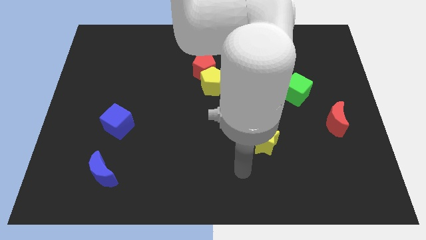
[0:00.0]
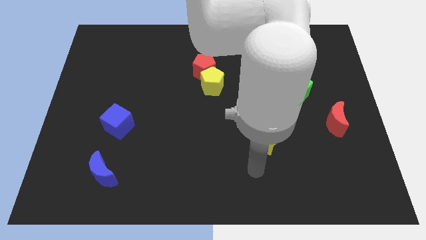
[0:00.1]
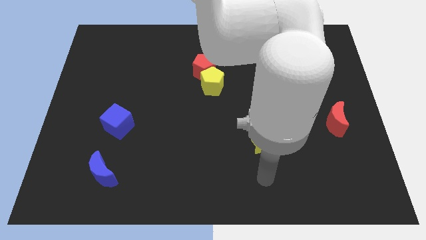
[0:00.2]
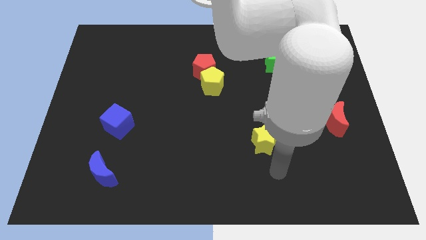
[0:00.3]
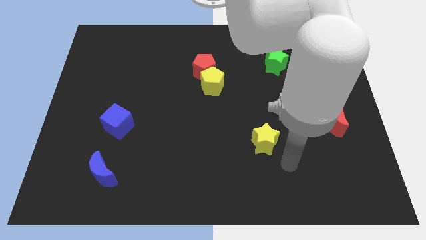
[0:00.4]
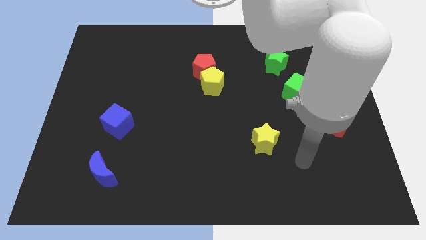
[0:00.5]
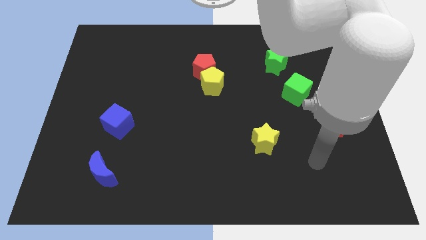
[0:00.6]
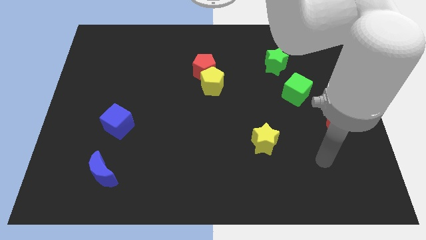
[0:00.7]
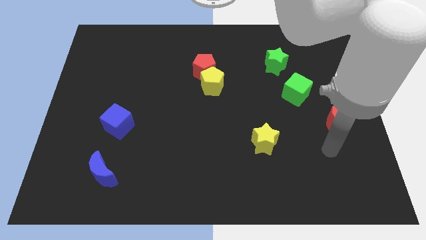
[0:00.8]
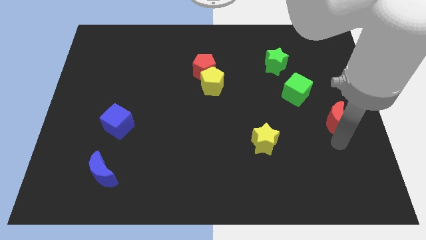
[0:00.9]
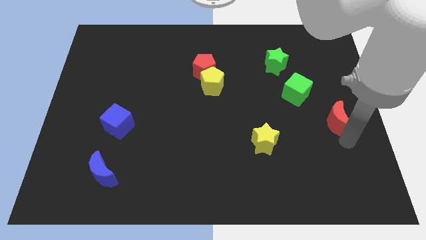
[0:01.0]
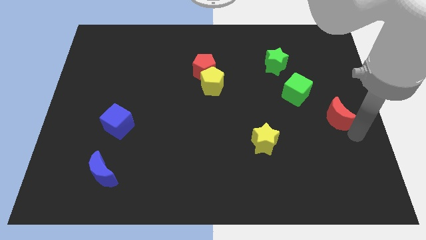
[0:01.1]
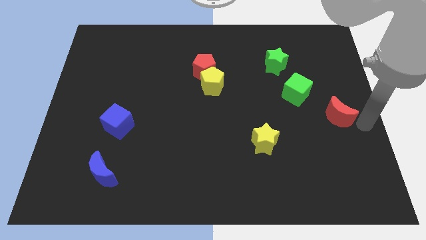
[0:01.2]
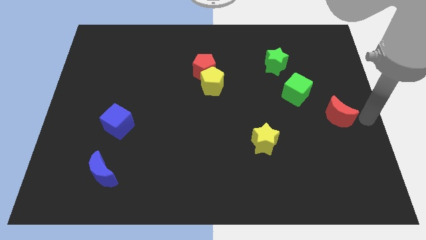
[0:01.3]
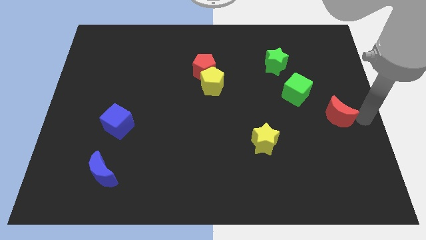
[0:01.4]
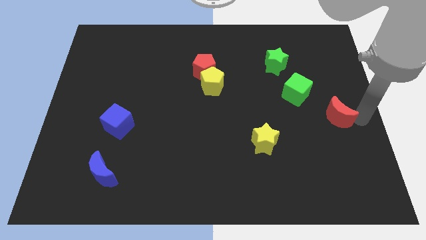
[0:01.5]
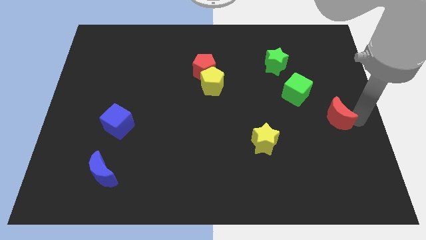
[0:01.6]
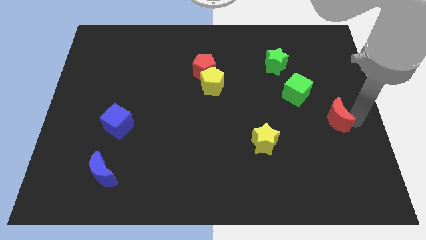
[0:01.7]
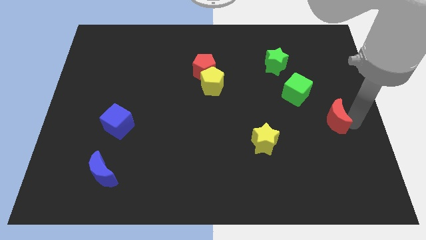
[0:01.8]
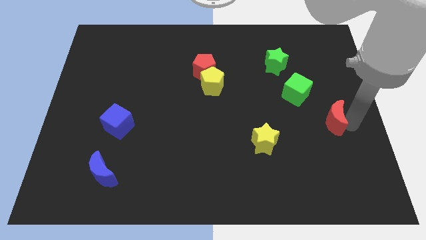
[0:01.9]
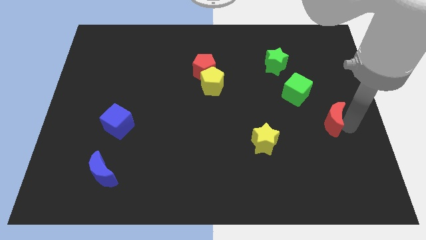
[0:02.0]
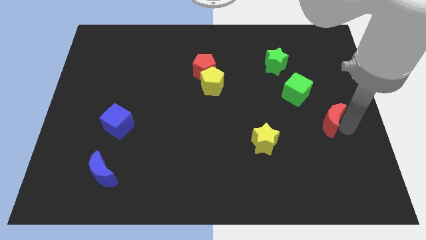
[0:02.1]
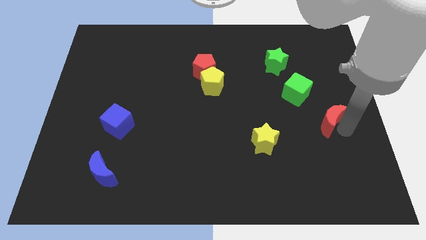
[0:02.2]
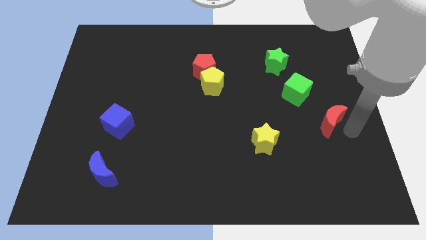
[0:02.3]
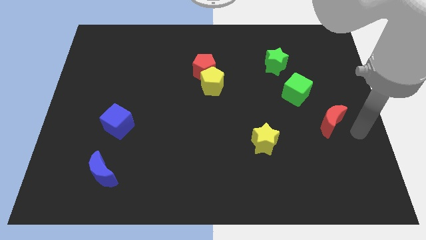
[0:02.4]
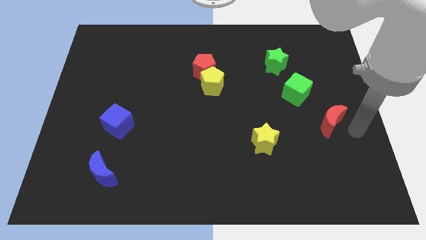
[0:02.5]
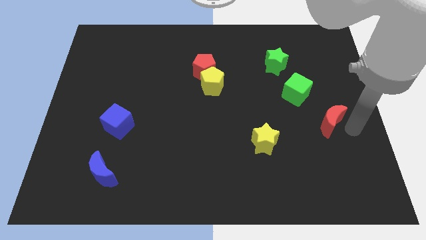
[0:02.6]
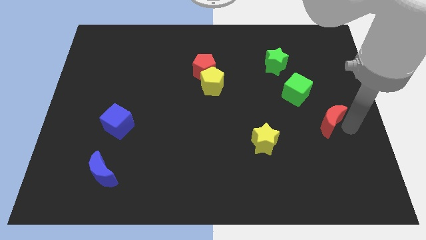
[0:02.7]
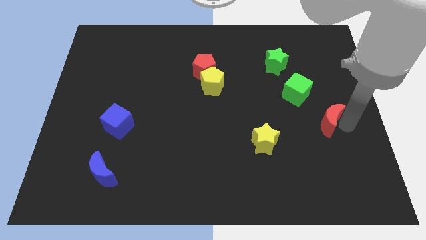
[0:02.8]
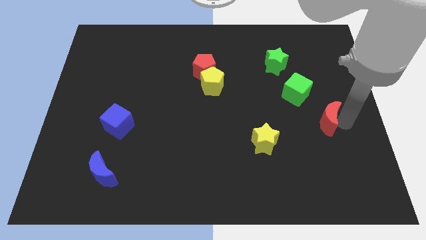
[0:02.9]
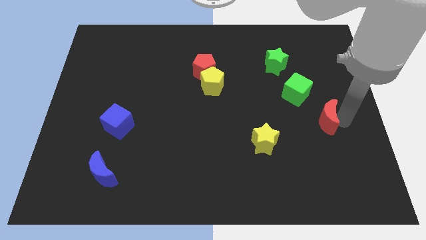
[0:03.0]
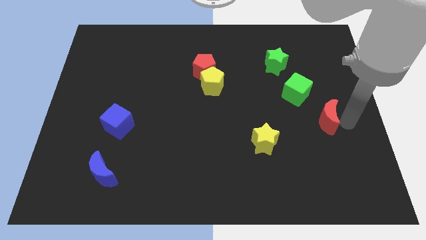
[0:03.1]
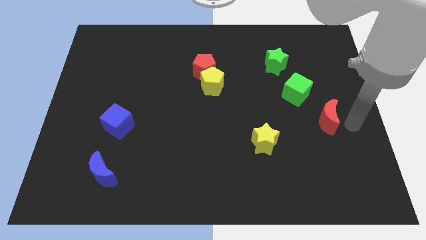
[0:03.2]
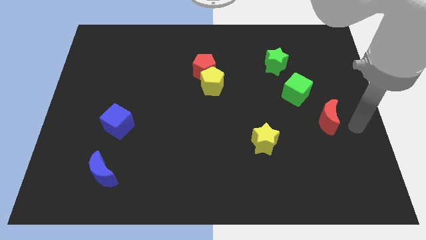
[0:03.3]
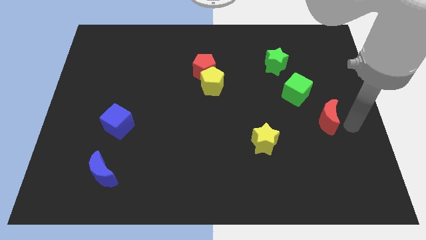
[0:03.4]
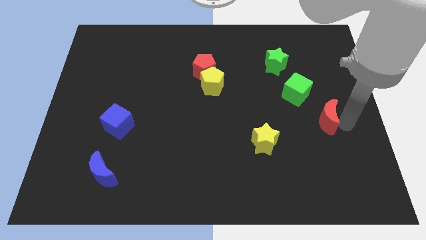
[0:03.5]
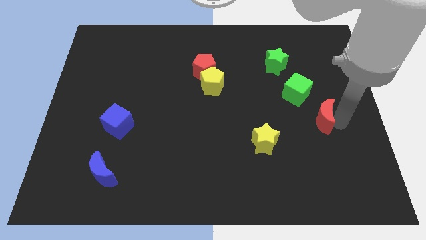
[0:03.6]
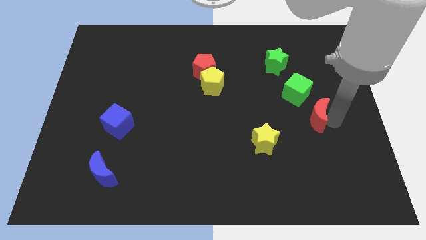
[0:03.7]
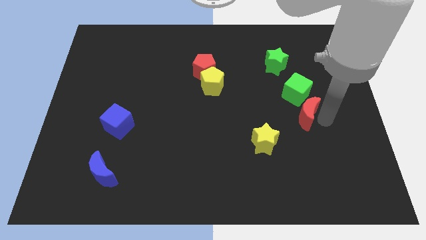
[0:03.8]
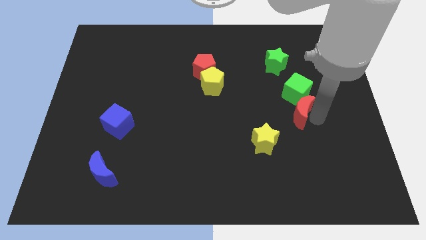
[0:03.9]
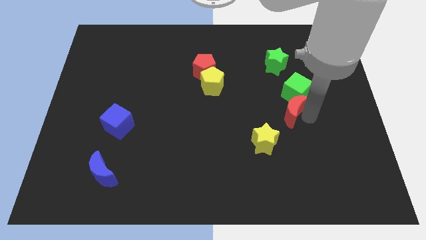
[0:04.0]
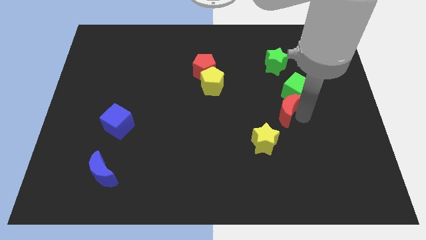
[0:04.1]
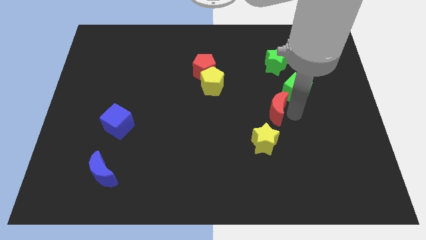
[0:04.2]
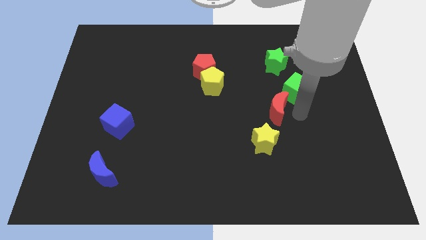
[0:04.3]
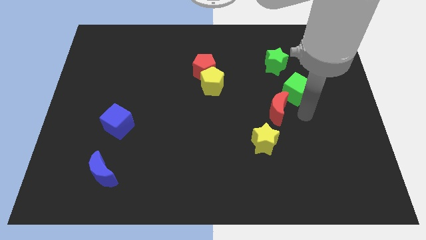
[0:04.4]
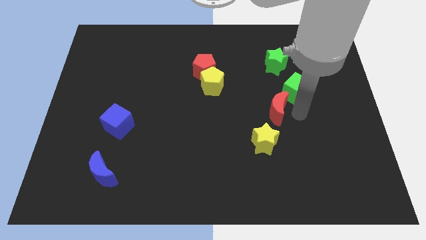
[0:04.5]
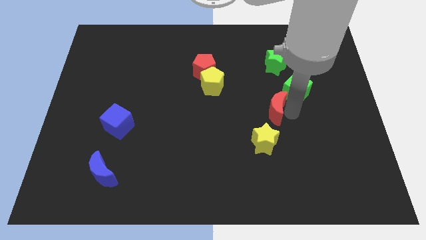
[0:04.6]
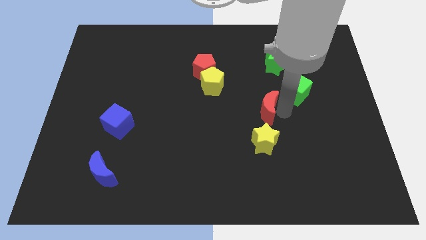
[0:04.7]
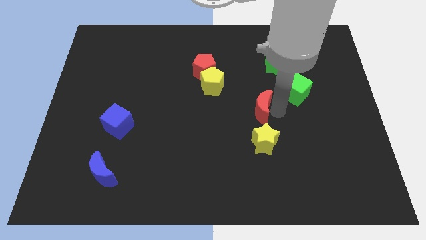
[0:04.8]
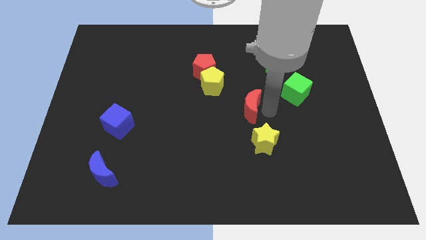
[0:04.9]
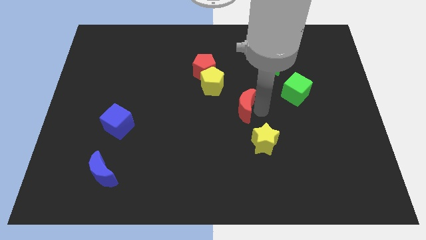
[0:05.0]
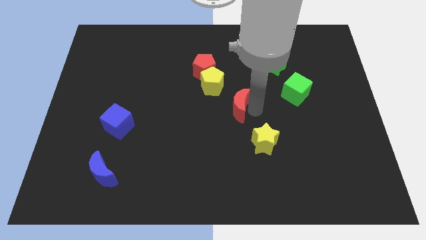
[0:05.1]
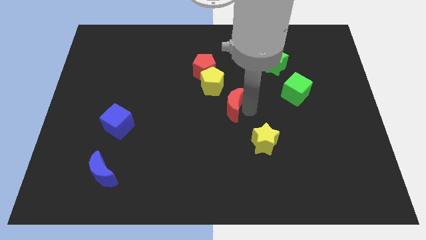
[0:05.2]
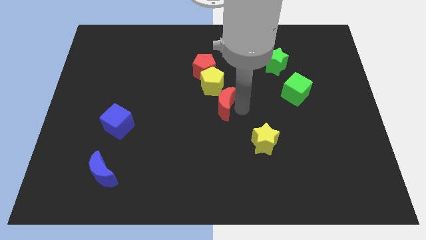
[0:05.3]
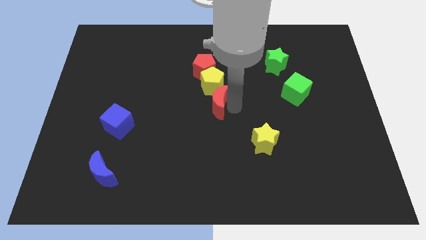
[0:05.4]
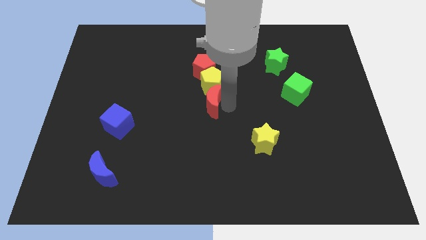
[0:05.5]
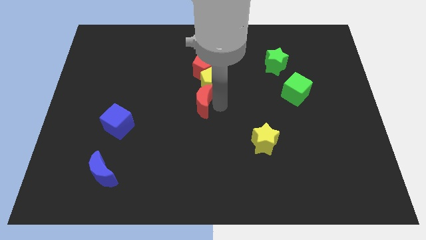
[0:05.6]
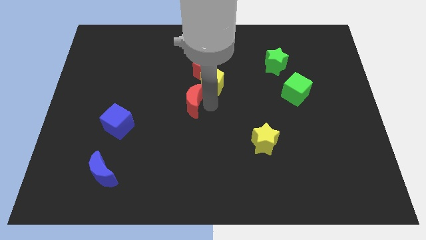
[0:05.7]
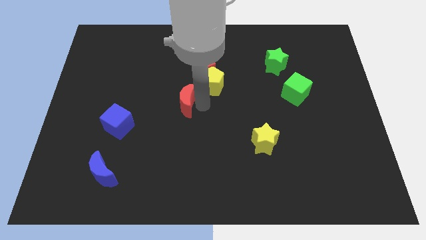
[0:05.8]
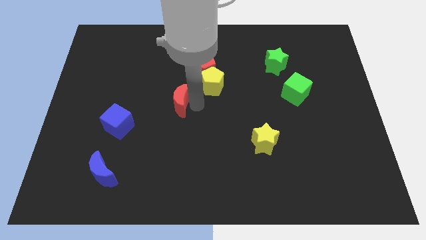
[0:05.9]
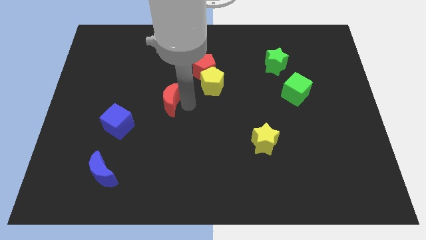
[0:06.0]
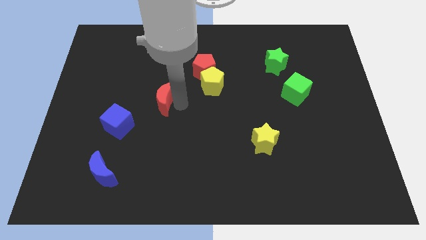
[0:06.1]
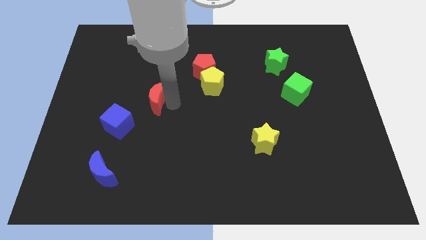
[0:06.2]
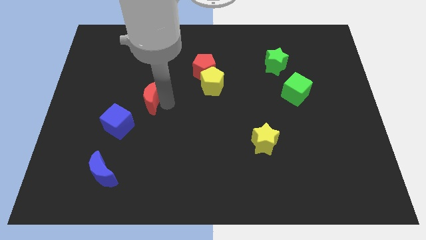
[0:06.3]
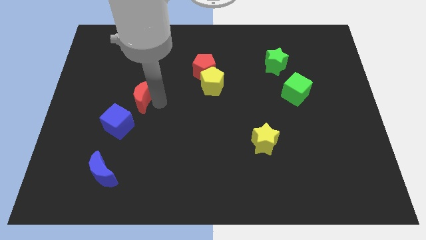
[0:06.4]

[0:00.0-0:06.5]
push the red moon to the top side of the blue cube
